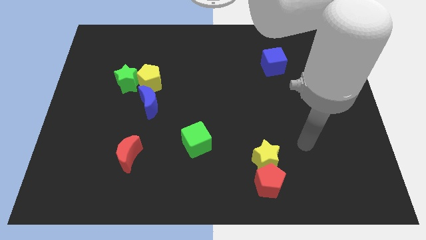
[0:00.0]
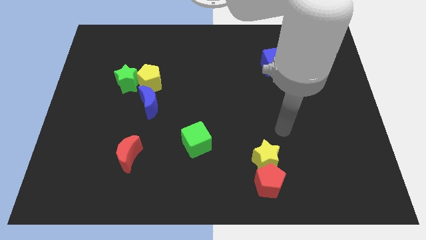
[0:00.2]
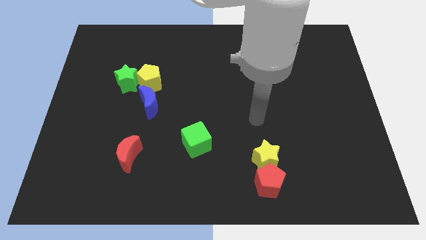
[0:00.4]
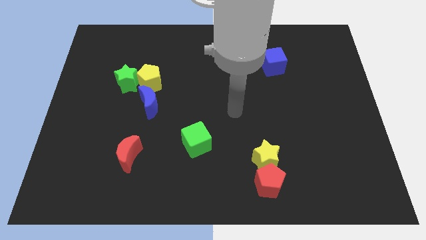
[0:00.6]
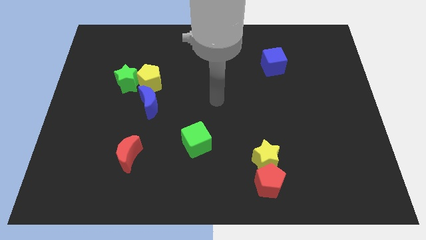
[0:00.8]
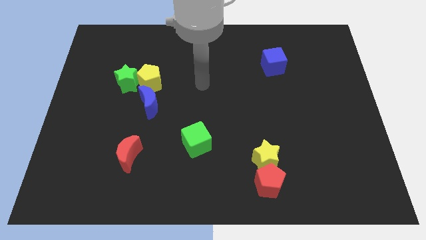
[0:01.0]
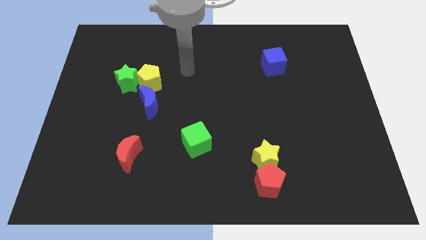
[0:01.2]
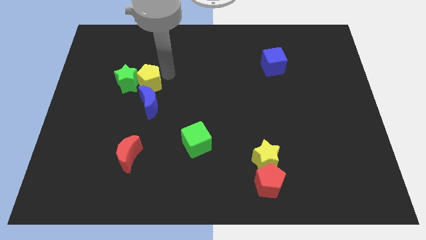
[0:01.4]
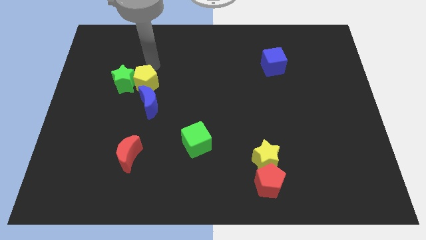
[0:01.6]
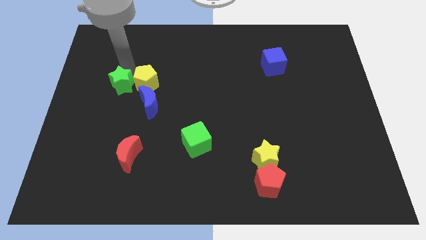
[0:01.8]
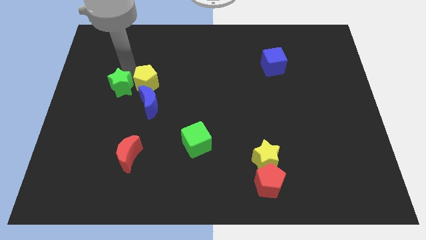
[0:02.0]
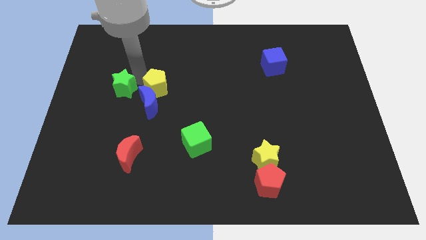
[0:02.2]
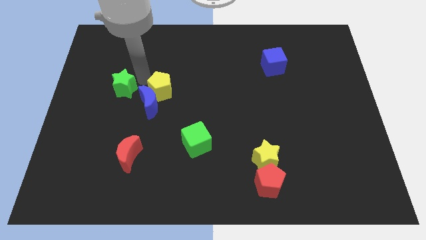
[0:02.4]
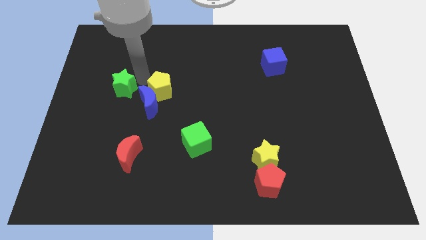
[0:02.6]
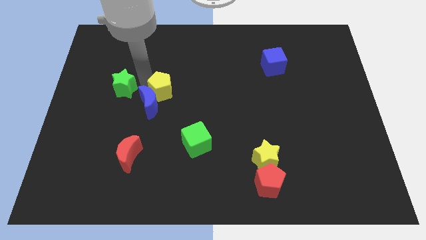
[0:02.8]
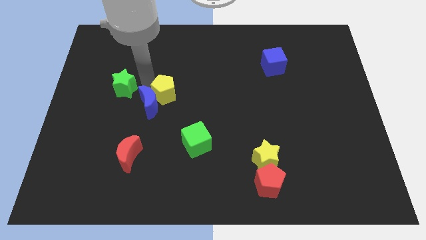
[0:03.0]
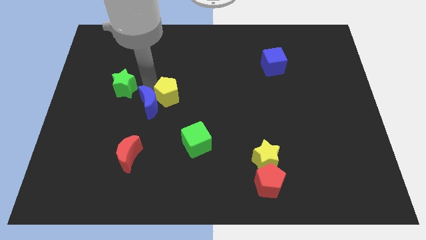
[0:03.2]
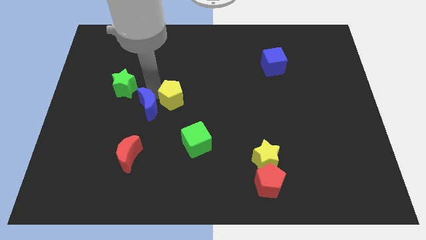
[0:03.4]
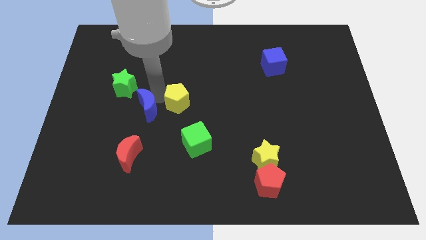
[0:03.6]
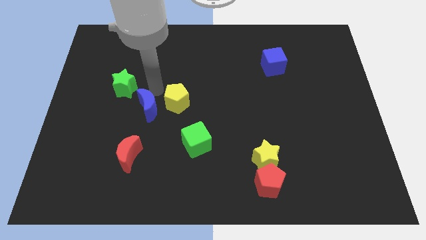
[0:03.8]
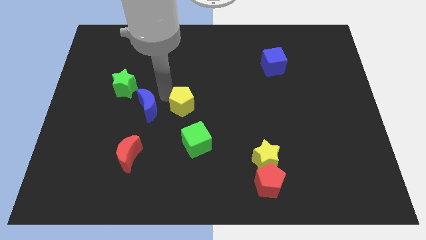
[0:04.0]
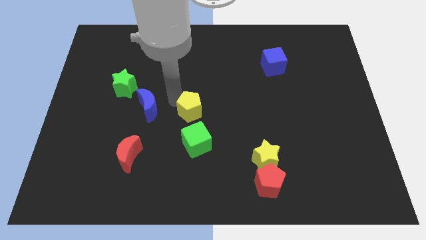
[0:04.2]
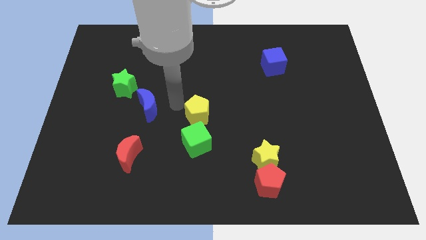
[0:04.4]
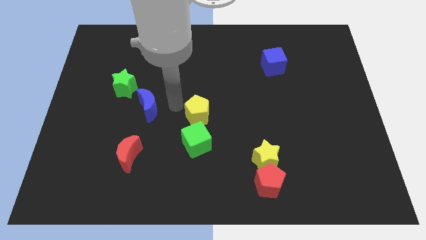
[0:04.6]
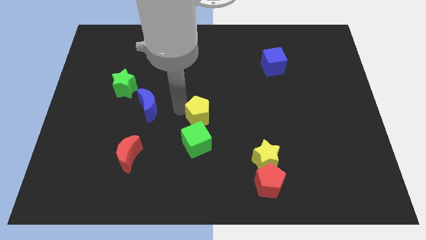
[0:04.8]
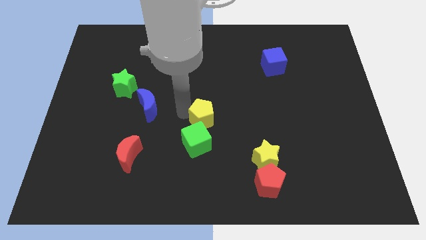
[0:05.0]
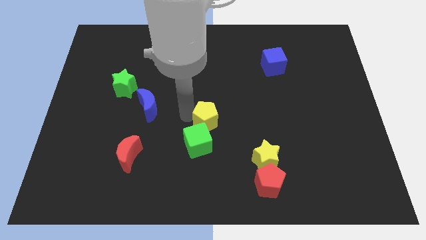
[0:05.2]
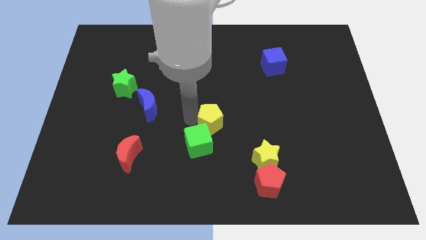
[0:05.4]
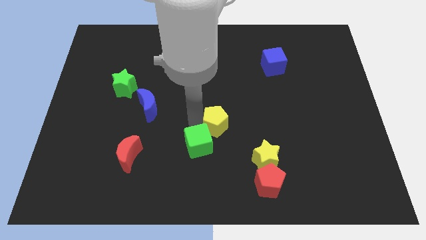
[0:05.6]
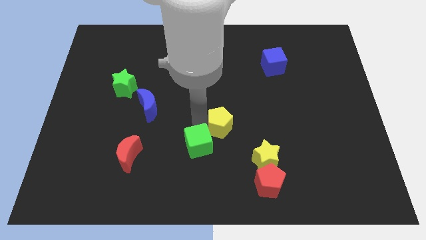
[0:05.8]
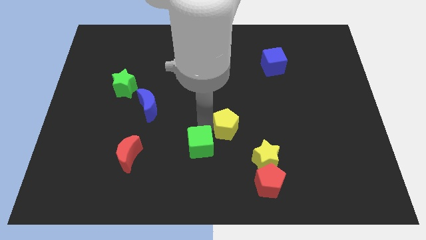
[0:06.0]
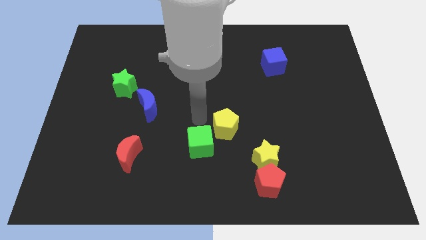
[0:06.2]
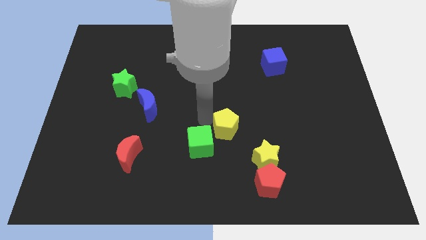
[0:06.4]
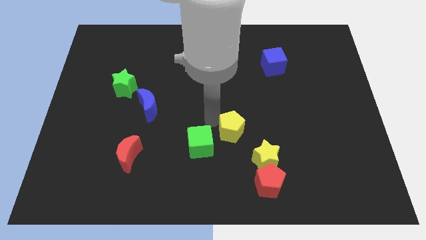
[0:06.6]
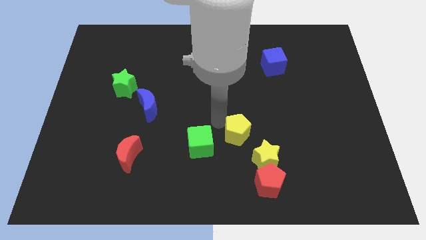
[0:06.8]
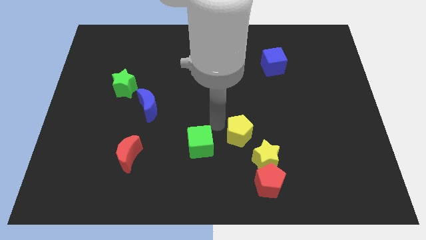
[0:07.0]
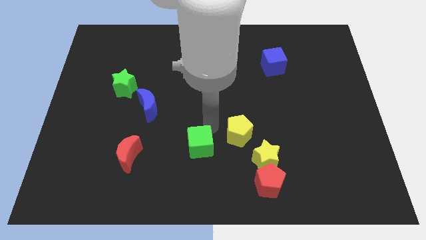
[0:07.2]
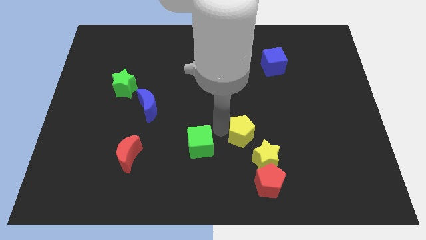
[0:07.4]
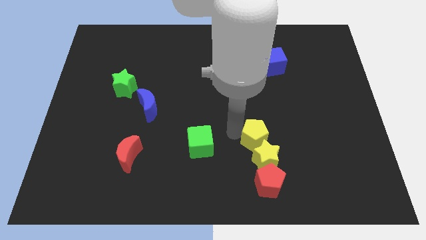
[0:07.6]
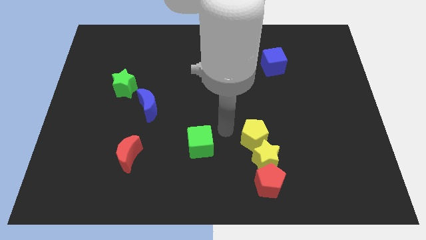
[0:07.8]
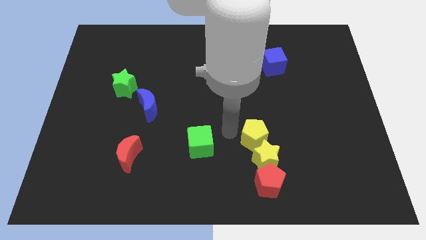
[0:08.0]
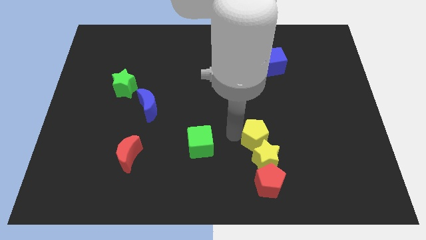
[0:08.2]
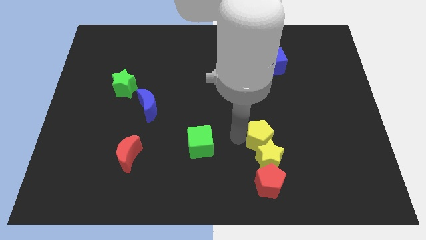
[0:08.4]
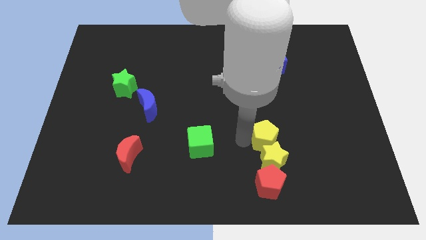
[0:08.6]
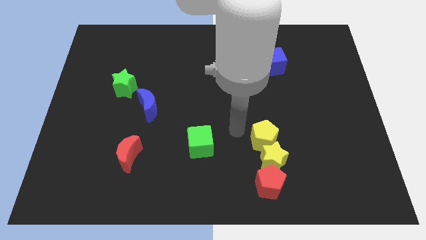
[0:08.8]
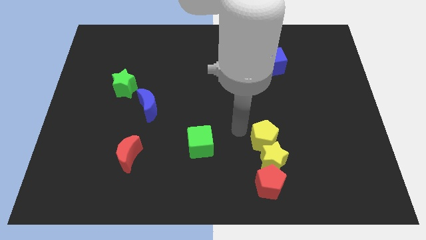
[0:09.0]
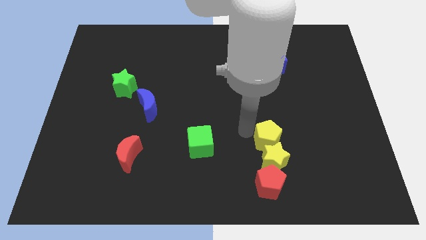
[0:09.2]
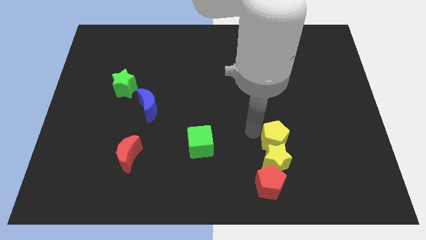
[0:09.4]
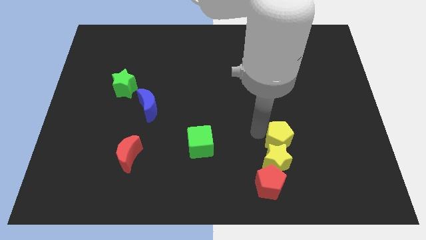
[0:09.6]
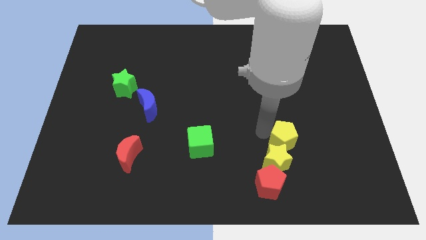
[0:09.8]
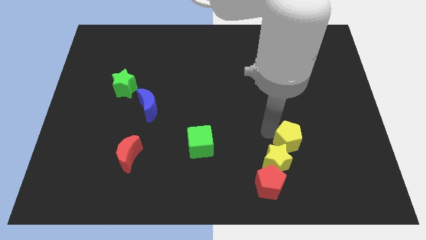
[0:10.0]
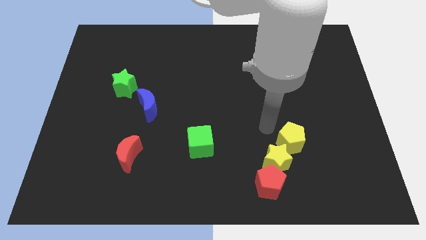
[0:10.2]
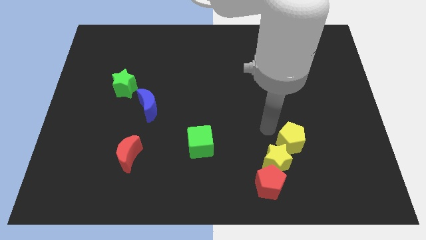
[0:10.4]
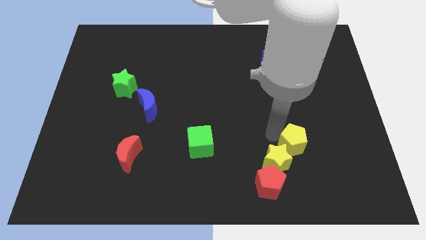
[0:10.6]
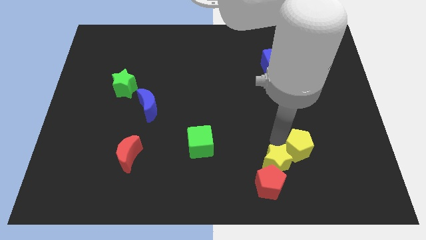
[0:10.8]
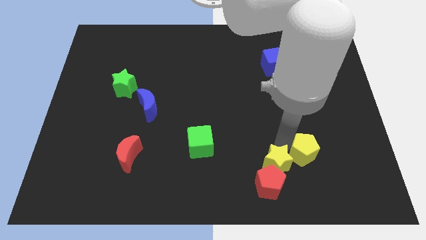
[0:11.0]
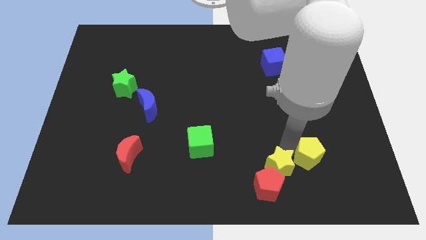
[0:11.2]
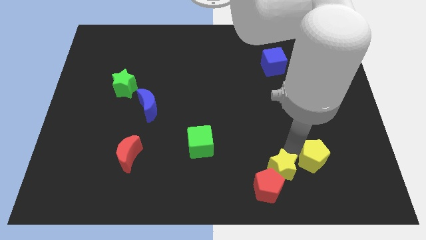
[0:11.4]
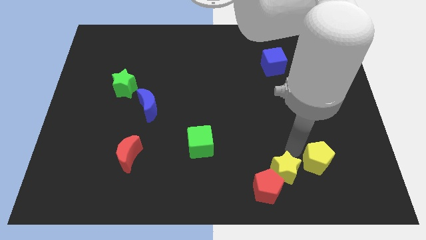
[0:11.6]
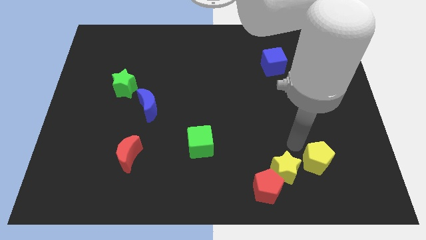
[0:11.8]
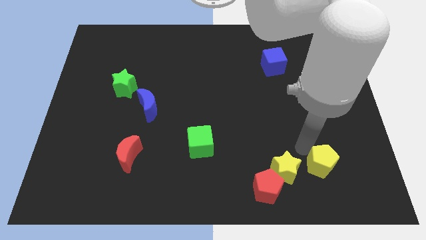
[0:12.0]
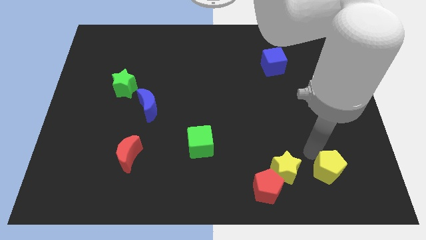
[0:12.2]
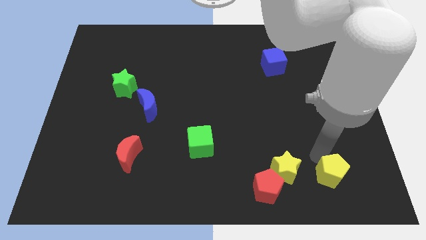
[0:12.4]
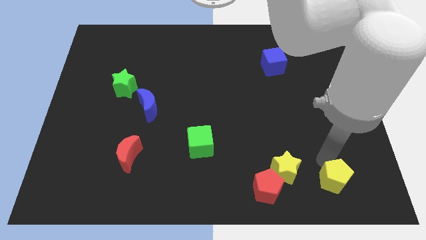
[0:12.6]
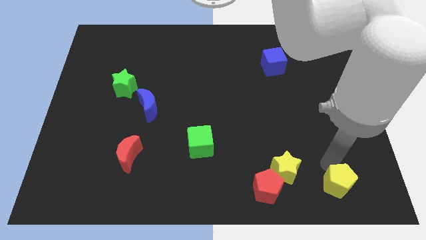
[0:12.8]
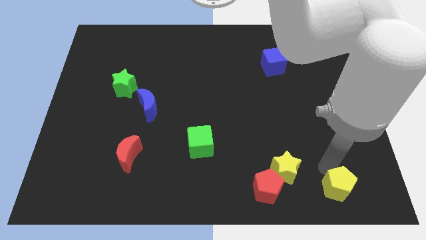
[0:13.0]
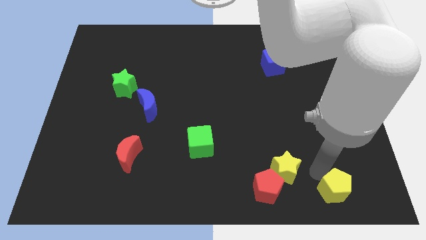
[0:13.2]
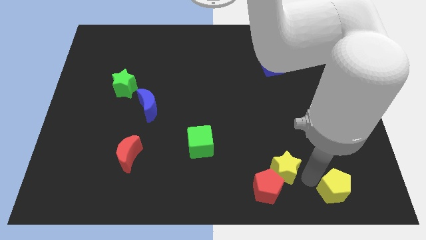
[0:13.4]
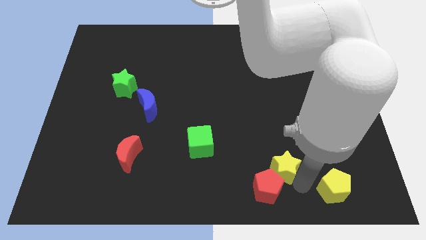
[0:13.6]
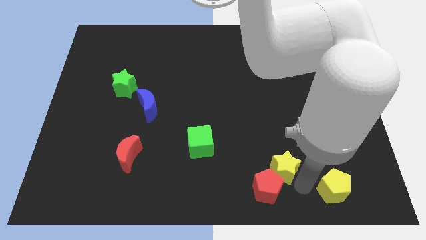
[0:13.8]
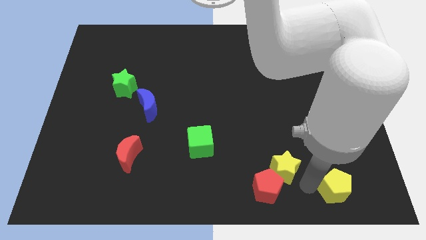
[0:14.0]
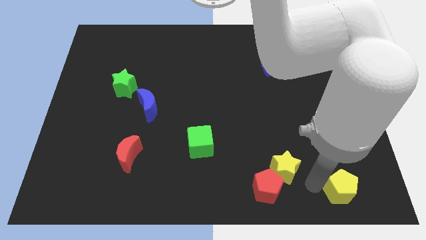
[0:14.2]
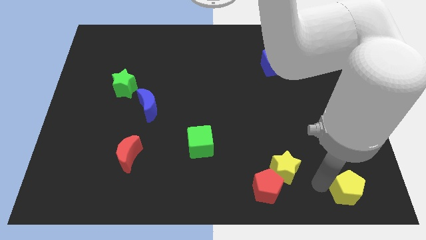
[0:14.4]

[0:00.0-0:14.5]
move the yellow pentagon to the bottom right corner
